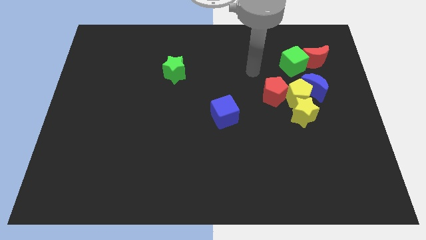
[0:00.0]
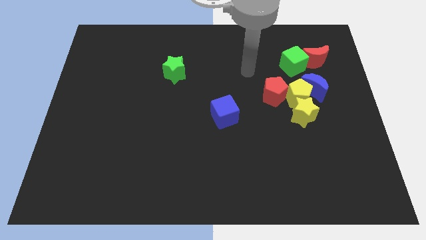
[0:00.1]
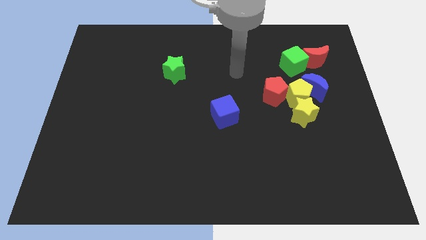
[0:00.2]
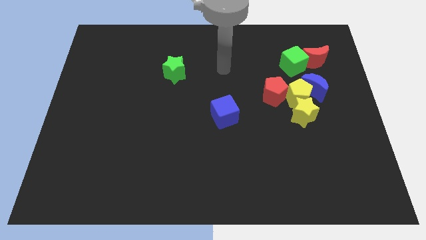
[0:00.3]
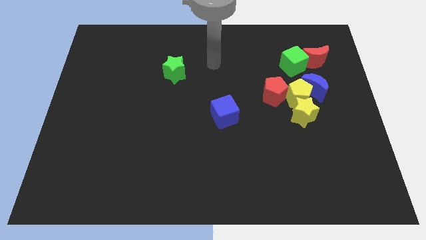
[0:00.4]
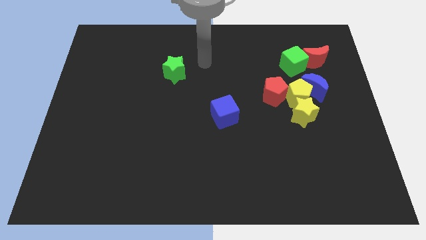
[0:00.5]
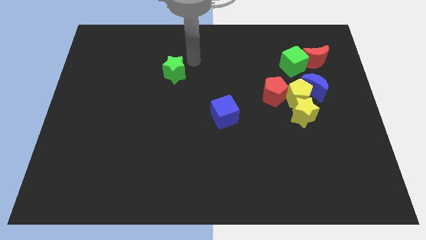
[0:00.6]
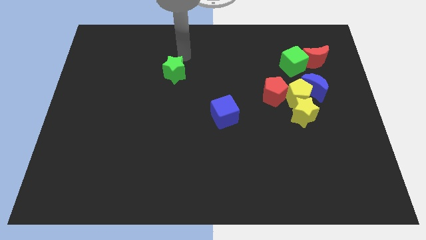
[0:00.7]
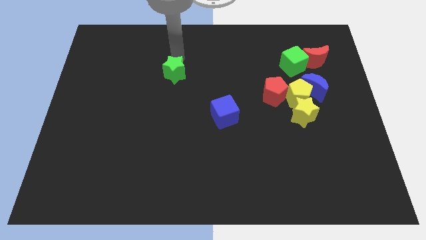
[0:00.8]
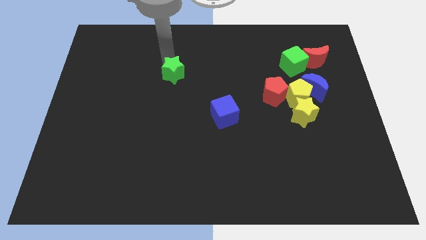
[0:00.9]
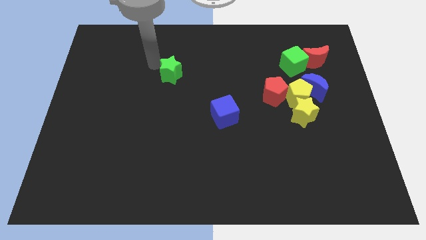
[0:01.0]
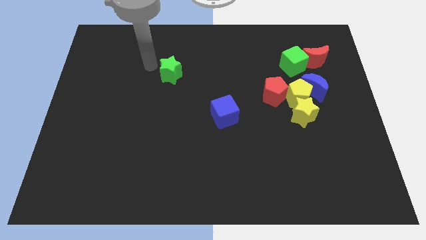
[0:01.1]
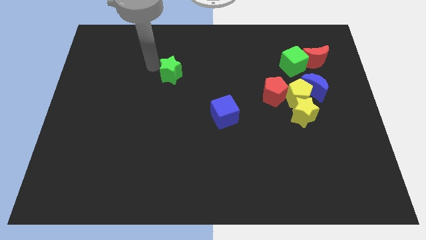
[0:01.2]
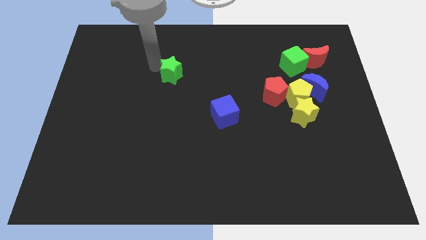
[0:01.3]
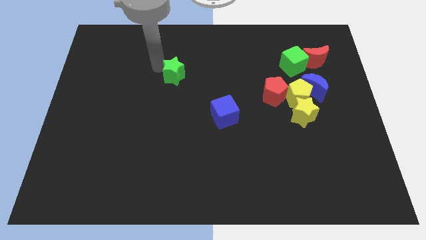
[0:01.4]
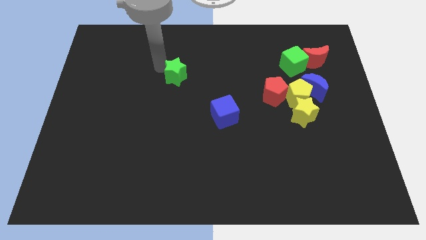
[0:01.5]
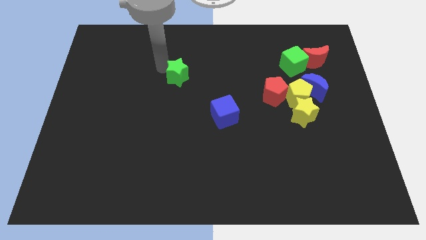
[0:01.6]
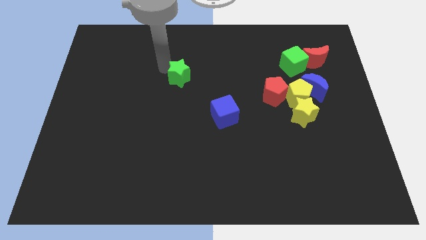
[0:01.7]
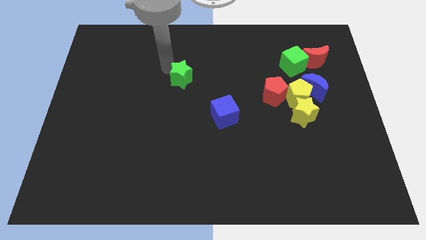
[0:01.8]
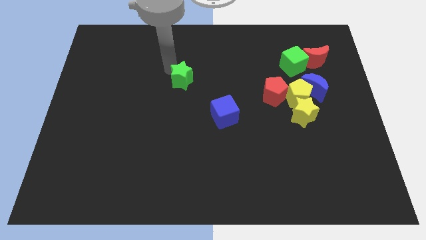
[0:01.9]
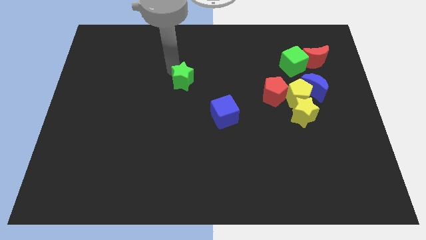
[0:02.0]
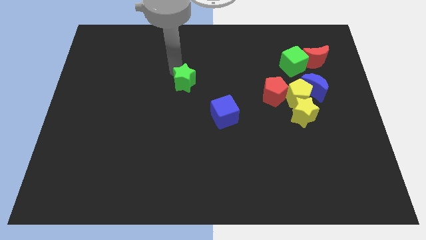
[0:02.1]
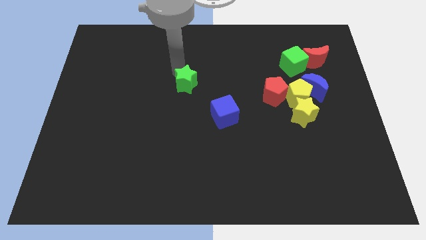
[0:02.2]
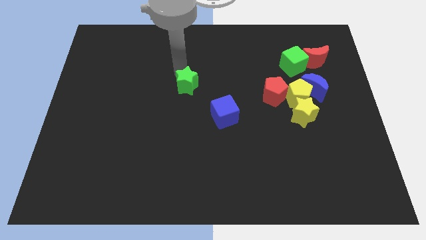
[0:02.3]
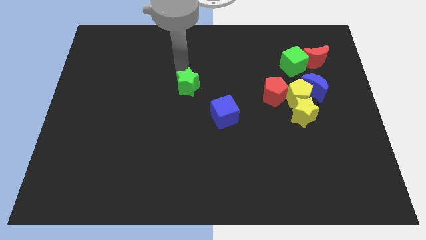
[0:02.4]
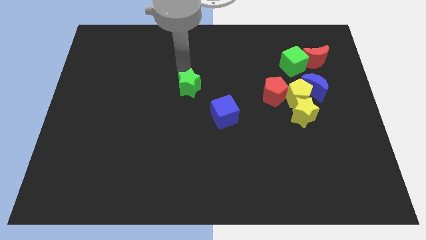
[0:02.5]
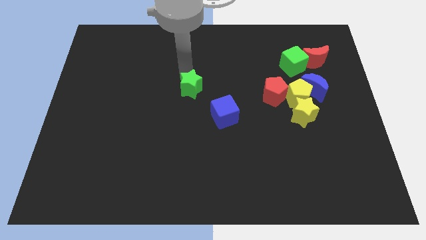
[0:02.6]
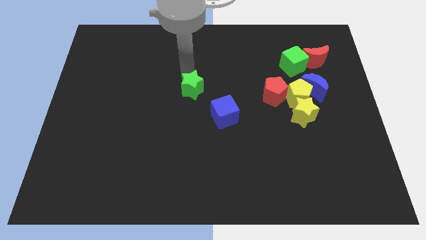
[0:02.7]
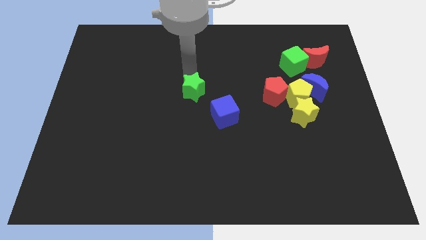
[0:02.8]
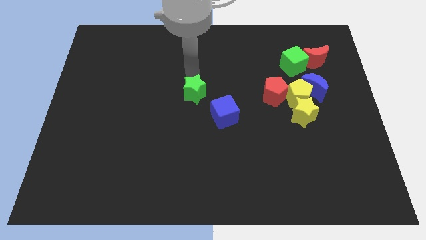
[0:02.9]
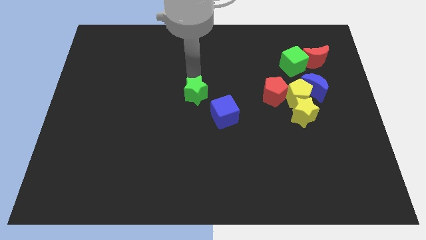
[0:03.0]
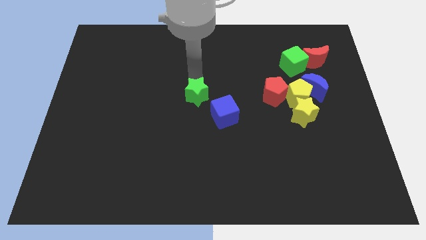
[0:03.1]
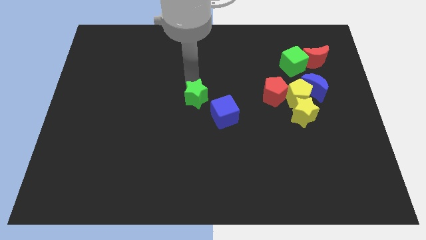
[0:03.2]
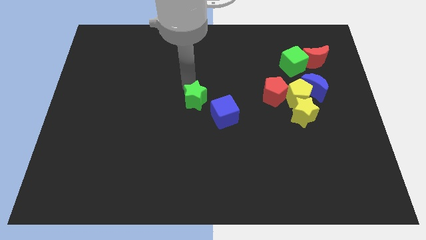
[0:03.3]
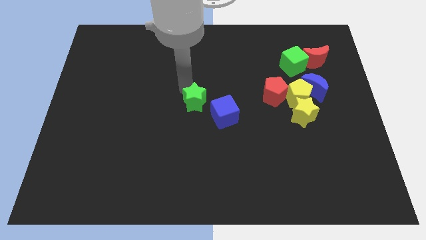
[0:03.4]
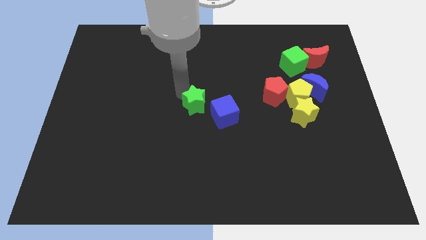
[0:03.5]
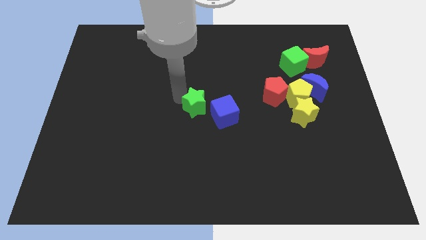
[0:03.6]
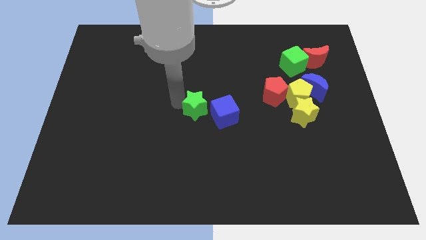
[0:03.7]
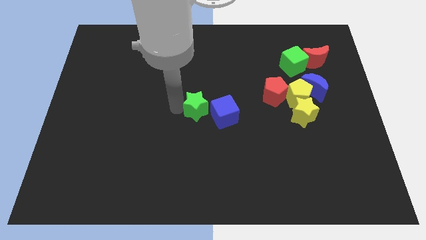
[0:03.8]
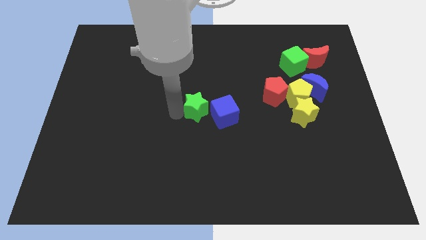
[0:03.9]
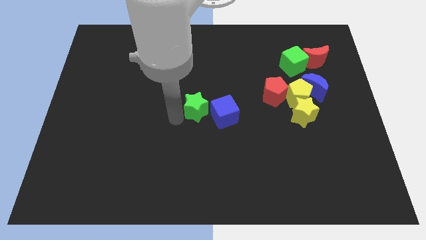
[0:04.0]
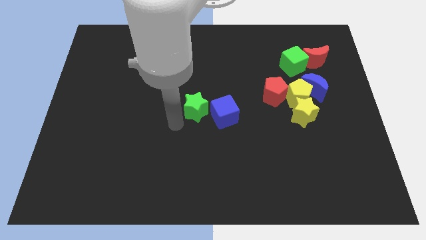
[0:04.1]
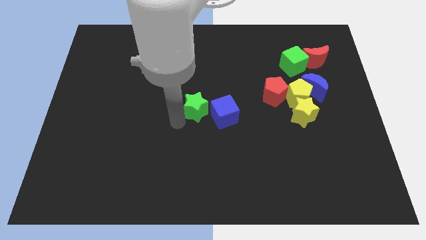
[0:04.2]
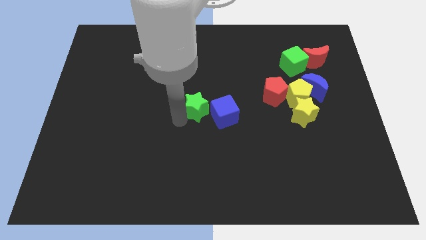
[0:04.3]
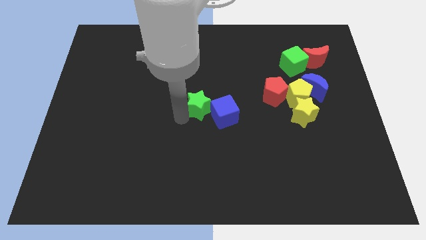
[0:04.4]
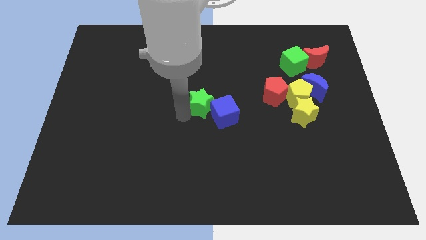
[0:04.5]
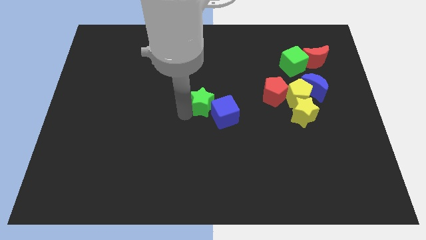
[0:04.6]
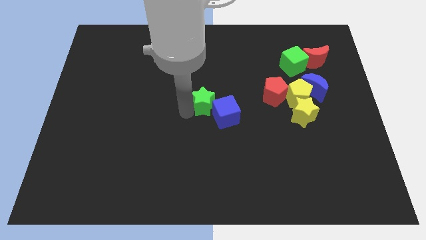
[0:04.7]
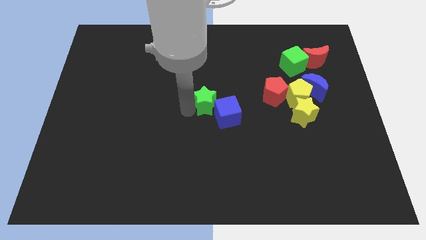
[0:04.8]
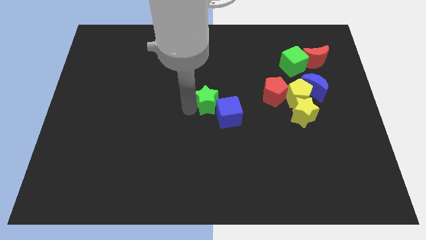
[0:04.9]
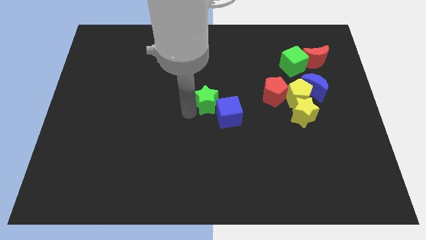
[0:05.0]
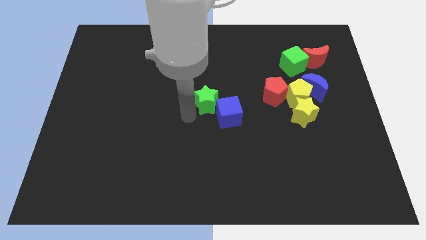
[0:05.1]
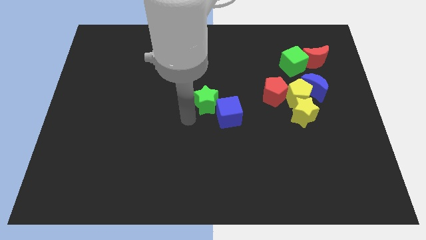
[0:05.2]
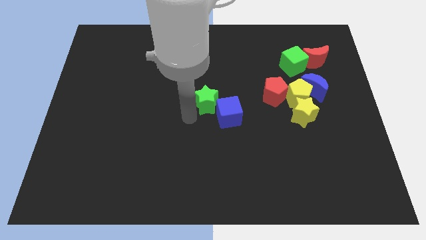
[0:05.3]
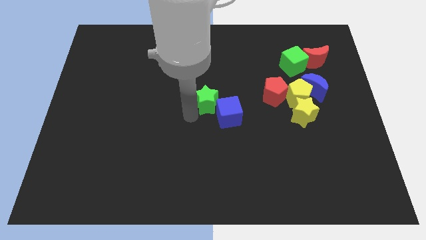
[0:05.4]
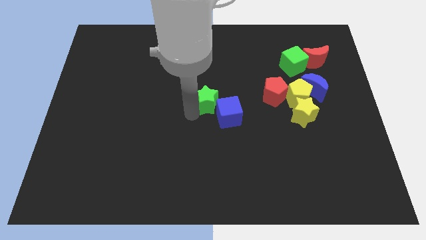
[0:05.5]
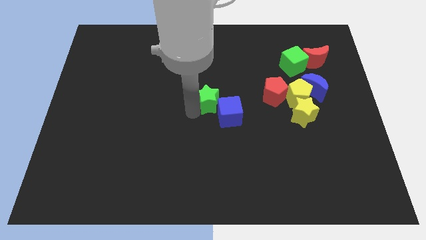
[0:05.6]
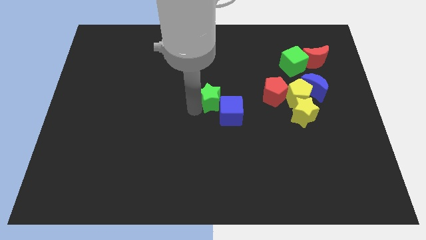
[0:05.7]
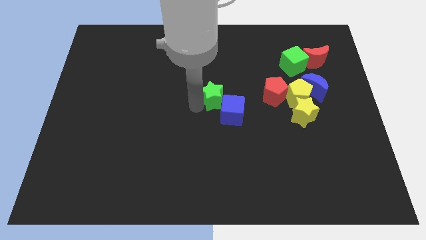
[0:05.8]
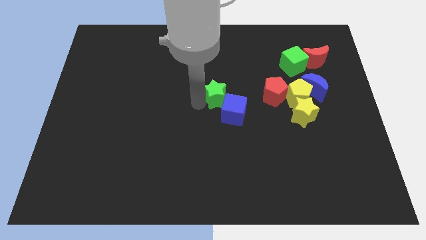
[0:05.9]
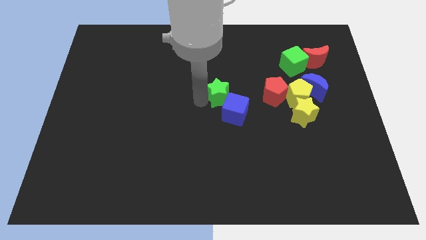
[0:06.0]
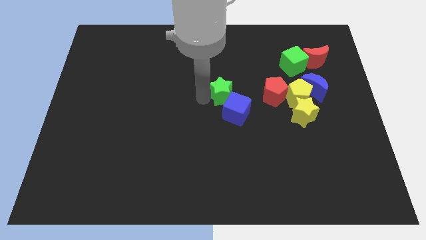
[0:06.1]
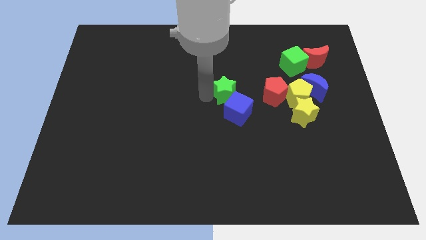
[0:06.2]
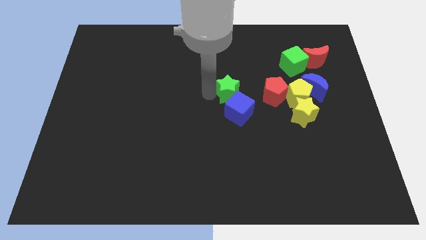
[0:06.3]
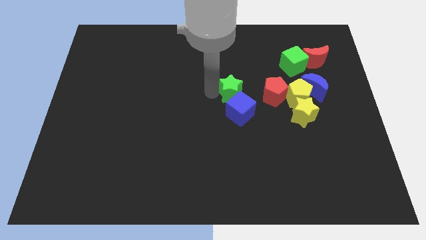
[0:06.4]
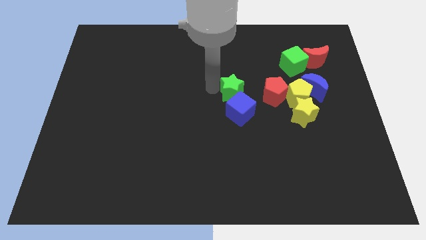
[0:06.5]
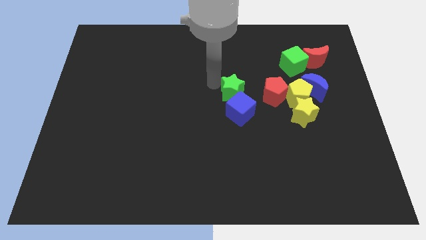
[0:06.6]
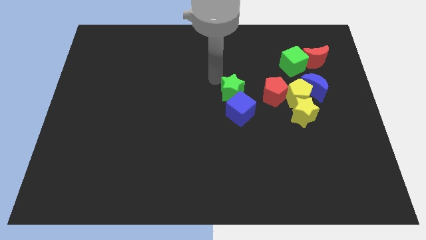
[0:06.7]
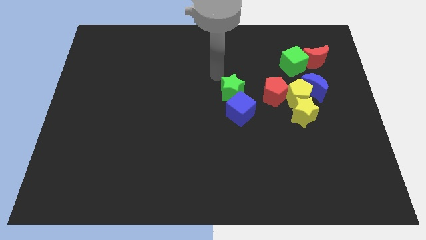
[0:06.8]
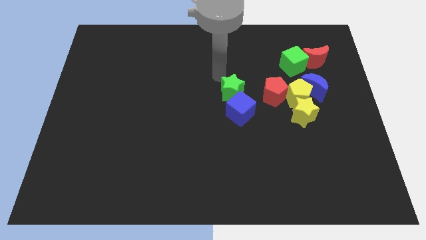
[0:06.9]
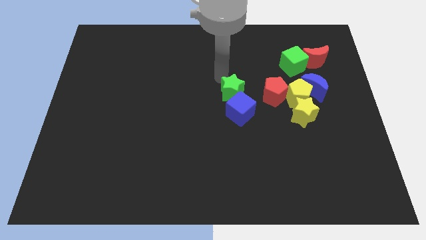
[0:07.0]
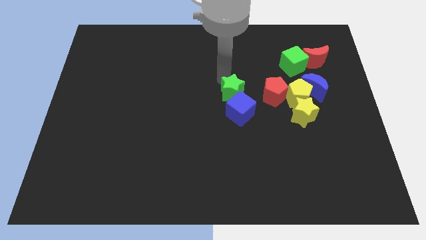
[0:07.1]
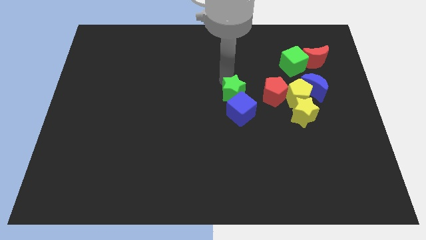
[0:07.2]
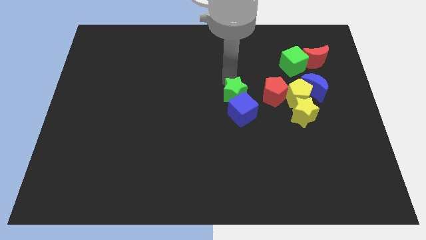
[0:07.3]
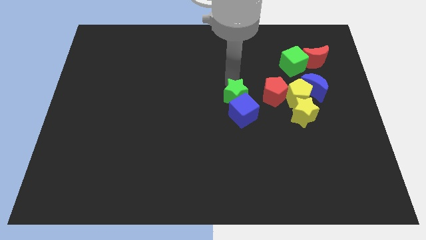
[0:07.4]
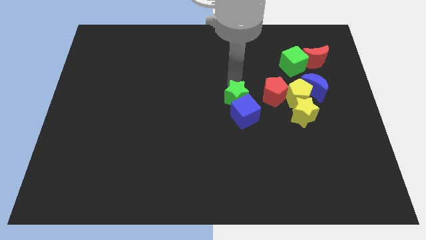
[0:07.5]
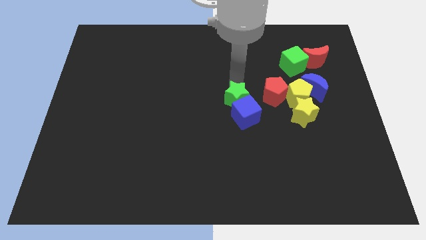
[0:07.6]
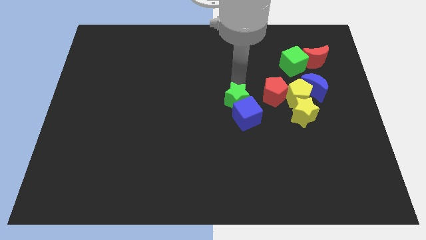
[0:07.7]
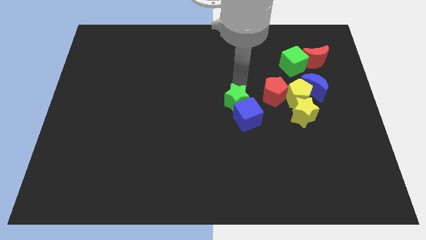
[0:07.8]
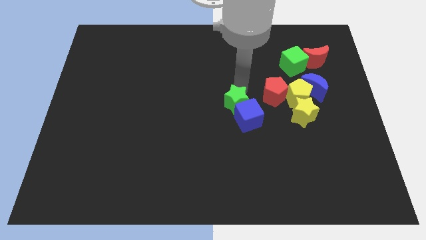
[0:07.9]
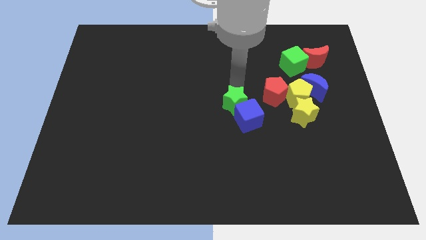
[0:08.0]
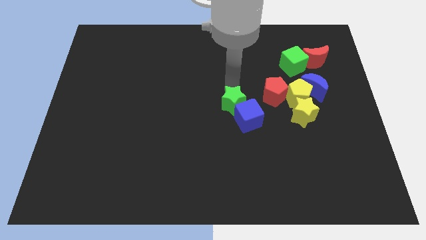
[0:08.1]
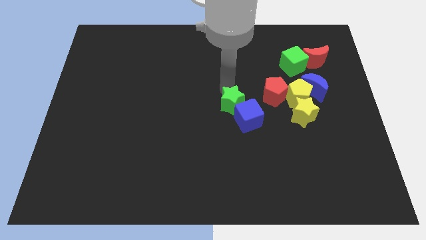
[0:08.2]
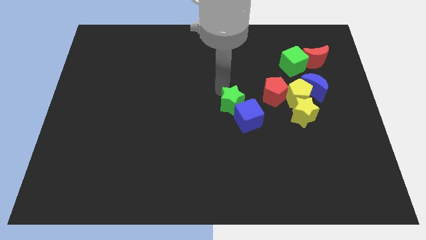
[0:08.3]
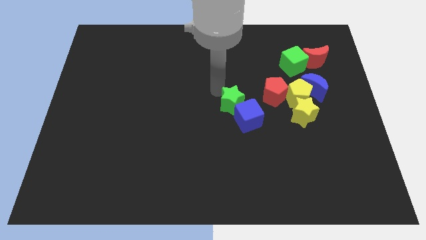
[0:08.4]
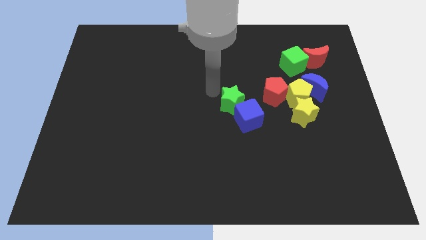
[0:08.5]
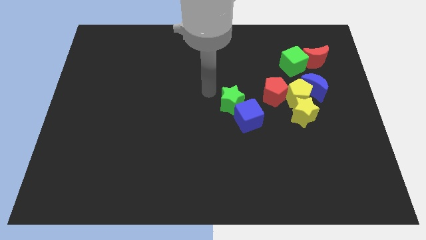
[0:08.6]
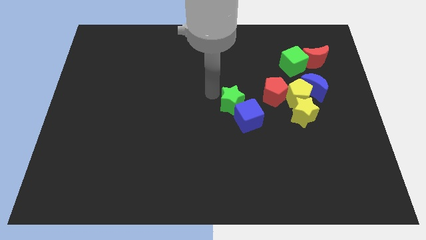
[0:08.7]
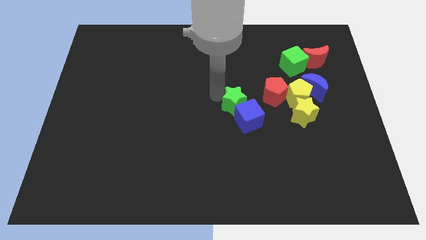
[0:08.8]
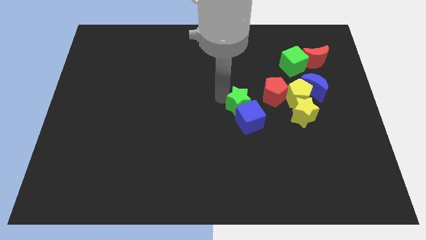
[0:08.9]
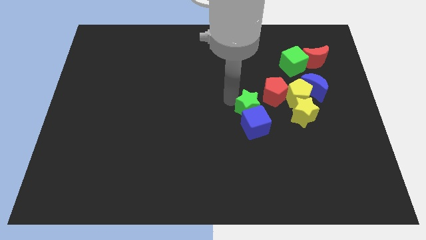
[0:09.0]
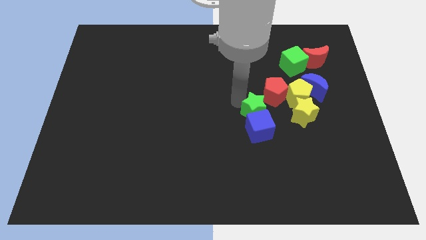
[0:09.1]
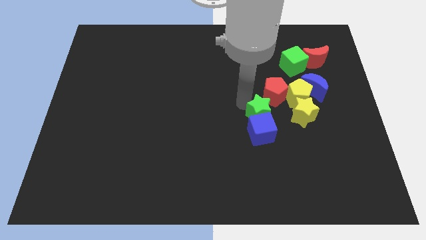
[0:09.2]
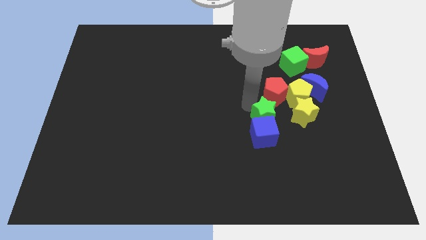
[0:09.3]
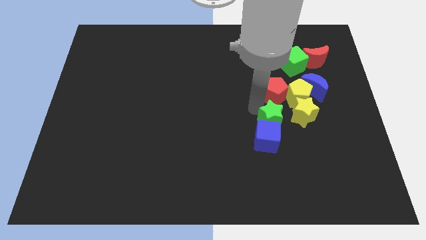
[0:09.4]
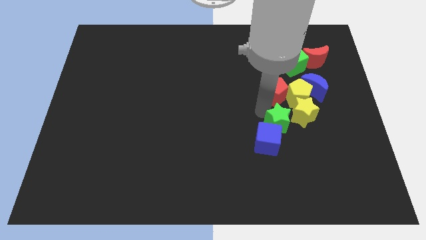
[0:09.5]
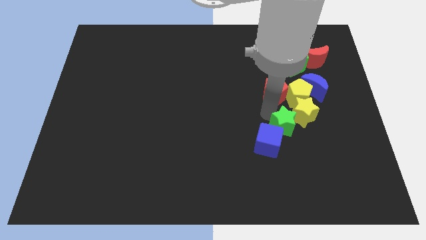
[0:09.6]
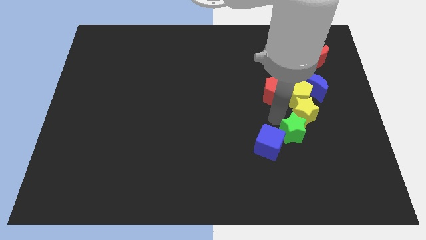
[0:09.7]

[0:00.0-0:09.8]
put the green star below the yellow star
